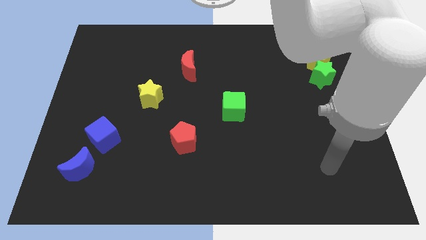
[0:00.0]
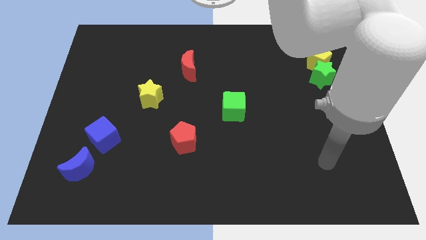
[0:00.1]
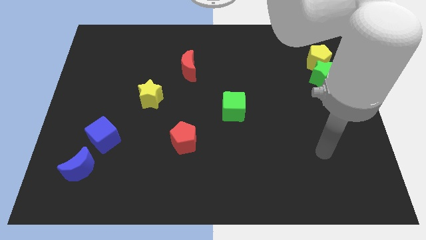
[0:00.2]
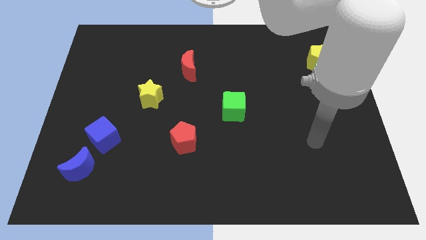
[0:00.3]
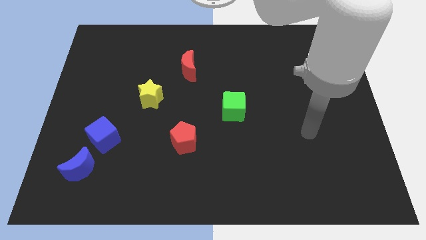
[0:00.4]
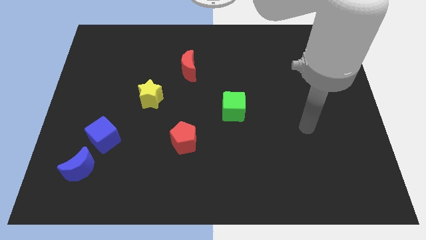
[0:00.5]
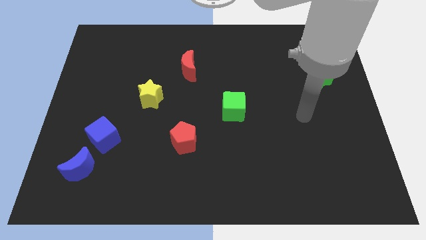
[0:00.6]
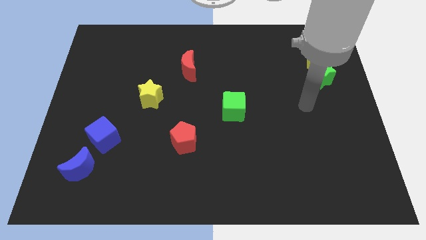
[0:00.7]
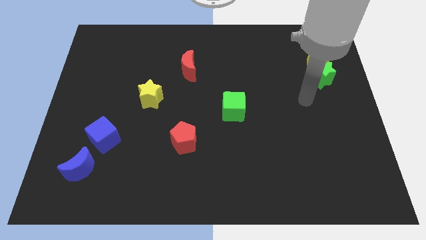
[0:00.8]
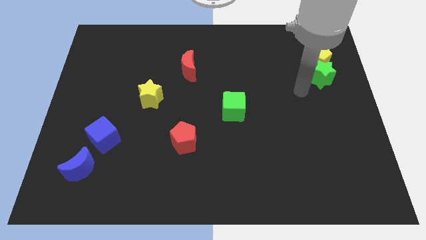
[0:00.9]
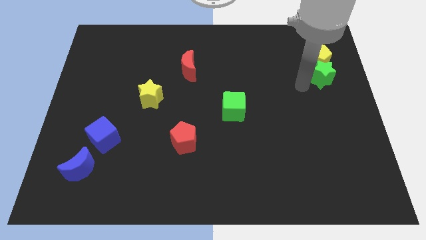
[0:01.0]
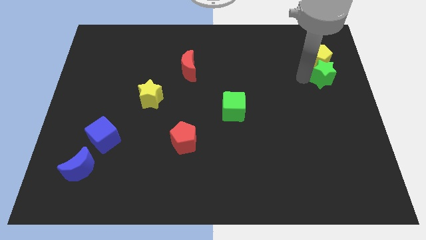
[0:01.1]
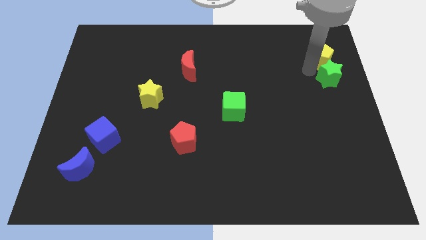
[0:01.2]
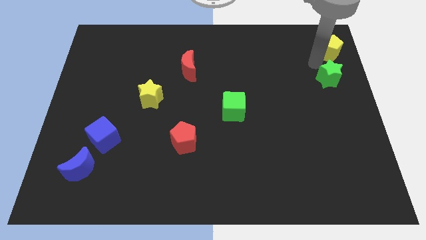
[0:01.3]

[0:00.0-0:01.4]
move the green star away from the yellow pentagon

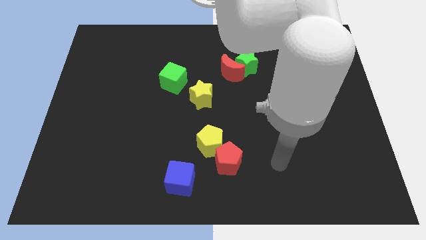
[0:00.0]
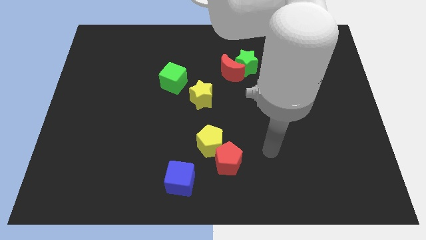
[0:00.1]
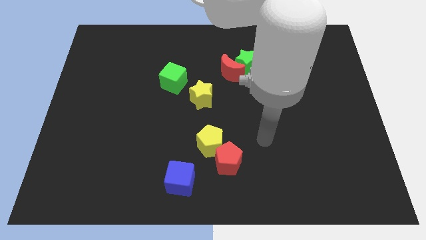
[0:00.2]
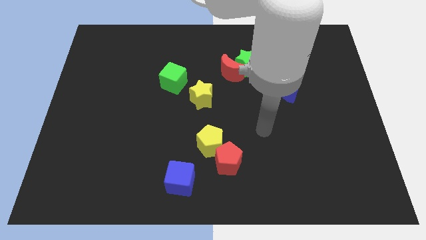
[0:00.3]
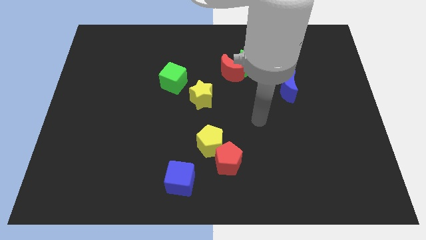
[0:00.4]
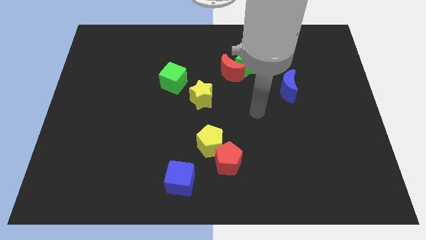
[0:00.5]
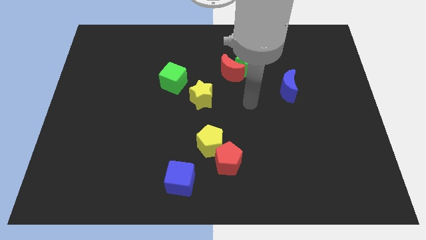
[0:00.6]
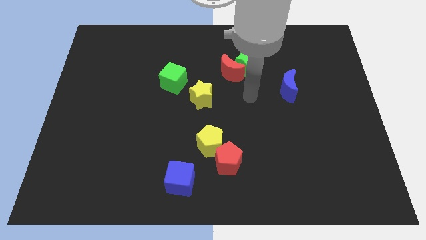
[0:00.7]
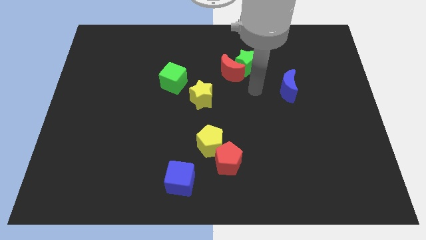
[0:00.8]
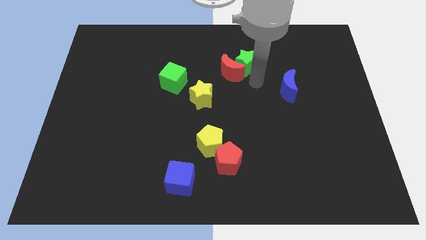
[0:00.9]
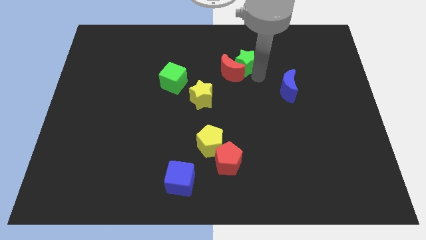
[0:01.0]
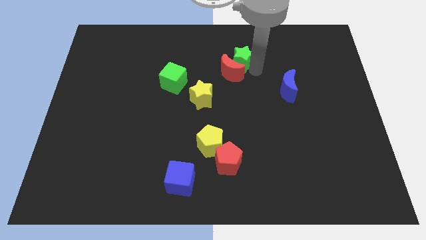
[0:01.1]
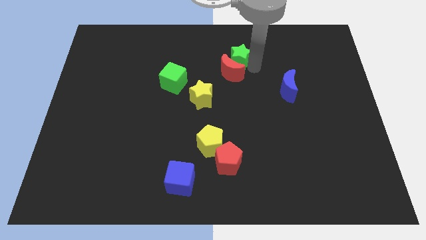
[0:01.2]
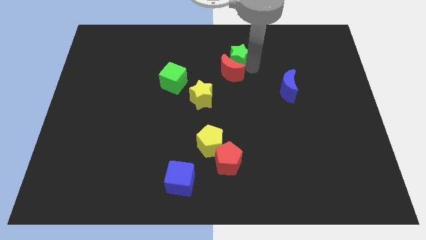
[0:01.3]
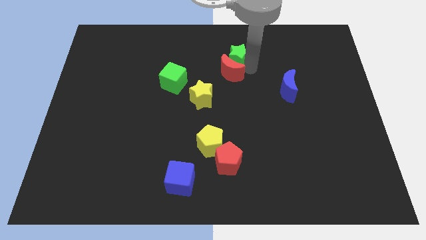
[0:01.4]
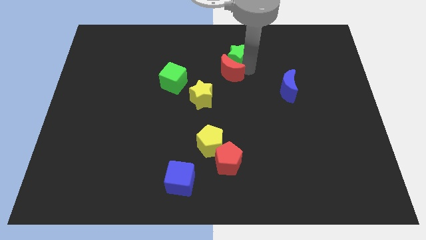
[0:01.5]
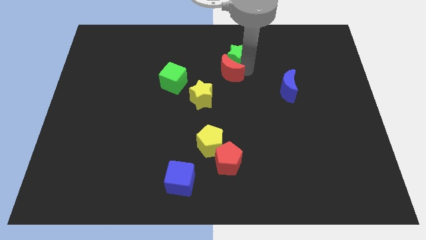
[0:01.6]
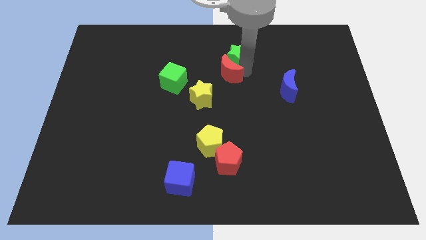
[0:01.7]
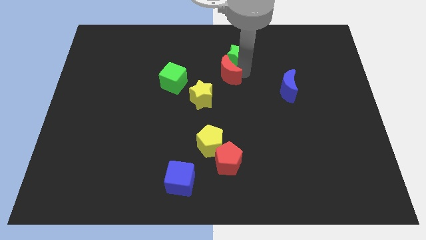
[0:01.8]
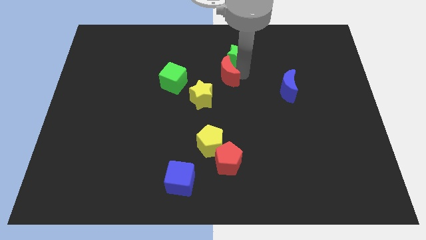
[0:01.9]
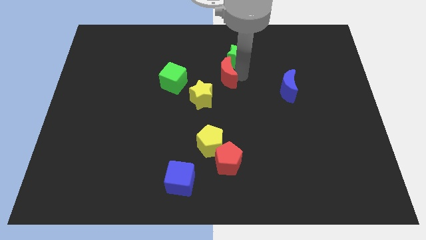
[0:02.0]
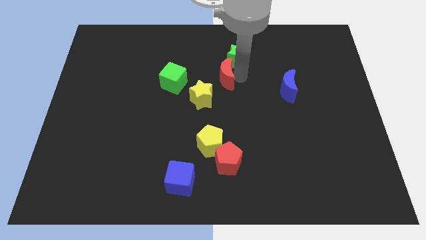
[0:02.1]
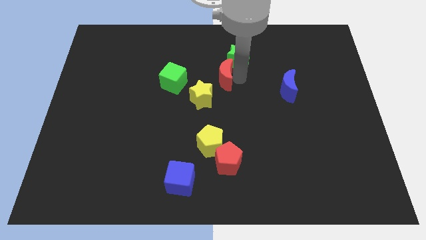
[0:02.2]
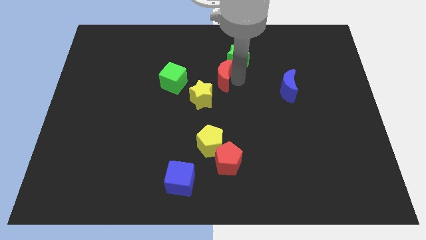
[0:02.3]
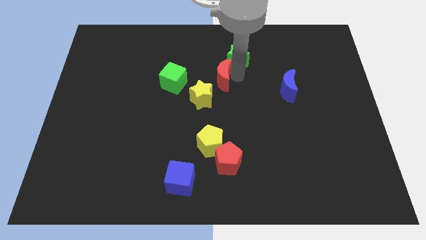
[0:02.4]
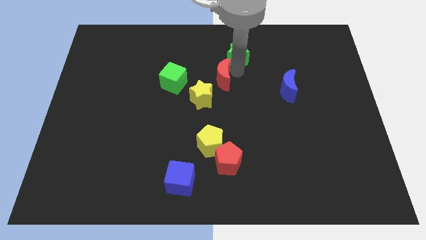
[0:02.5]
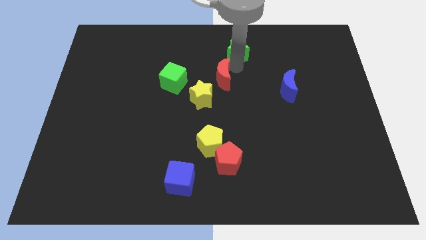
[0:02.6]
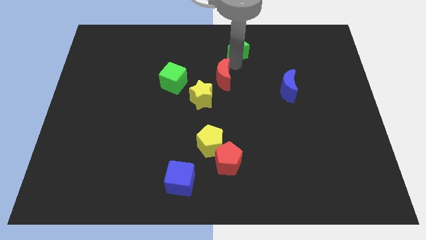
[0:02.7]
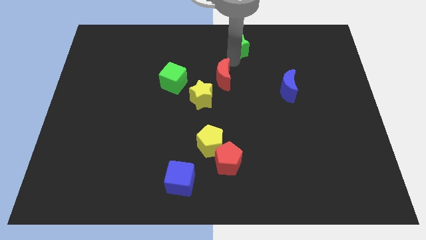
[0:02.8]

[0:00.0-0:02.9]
move the red moon away from the green star

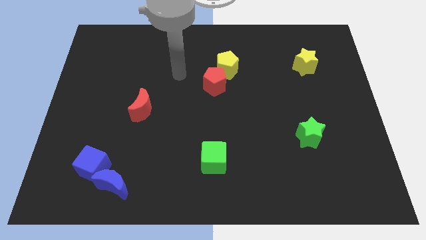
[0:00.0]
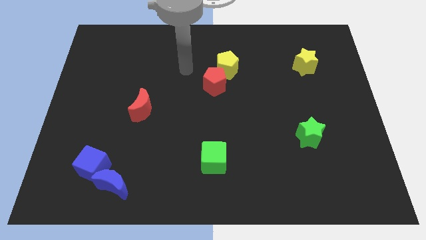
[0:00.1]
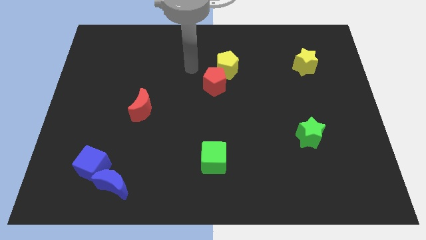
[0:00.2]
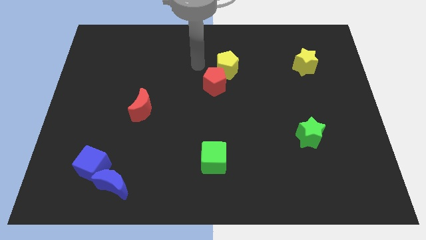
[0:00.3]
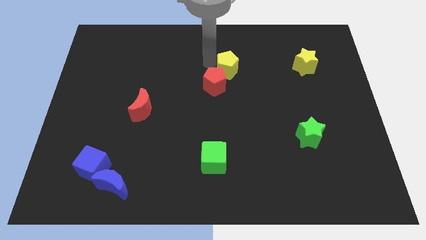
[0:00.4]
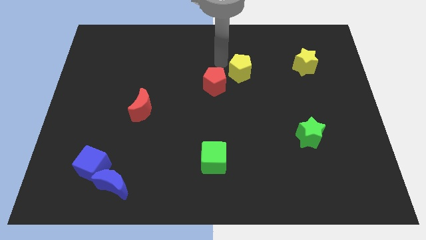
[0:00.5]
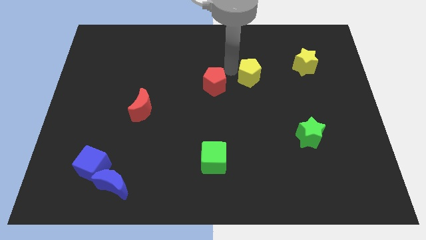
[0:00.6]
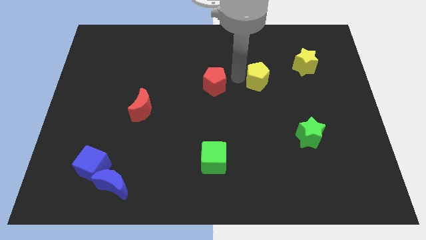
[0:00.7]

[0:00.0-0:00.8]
pull the red pentagon apart from the yellow pentagon

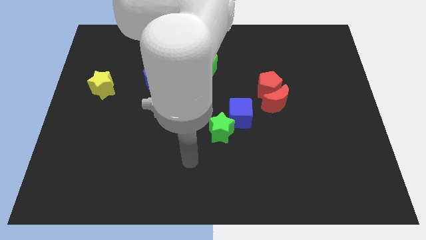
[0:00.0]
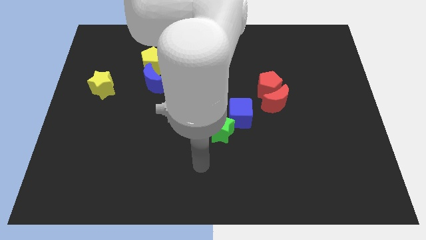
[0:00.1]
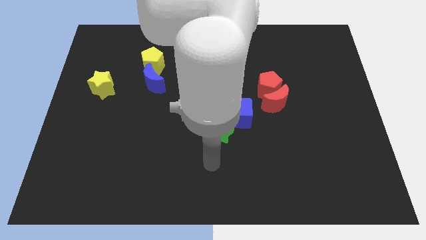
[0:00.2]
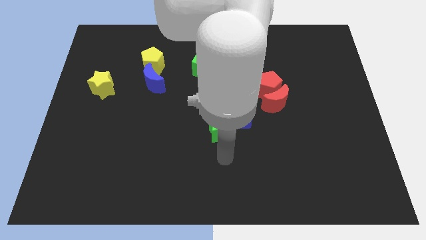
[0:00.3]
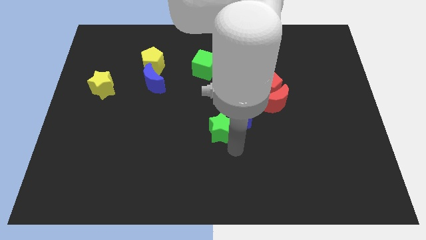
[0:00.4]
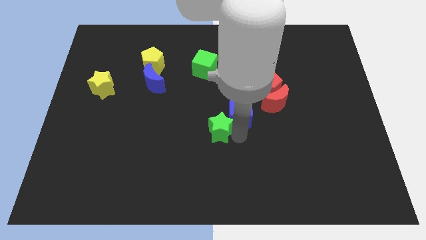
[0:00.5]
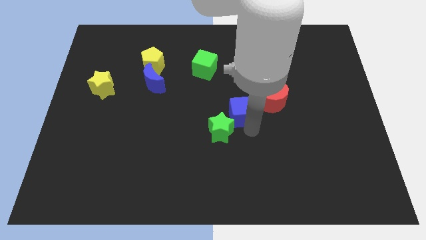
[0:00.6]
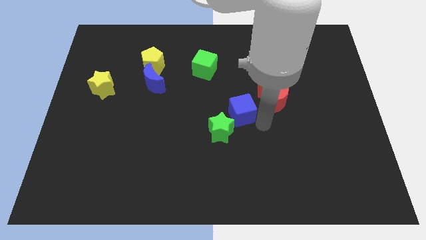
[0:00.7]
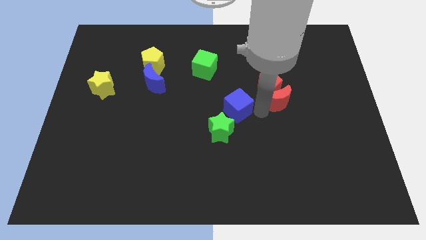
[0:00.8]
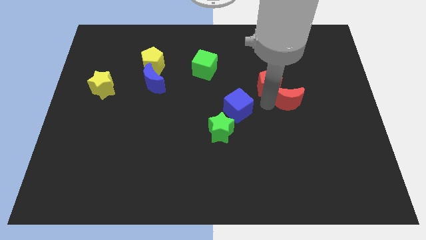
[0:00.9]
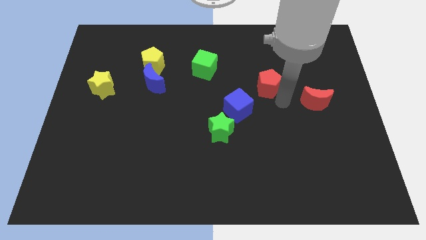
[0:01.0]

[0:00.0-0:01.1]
separate the red pentagon from the red moon

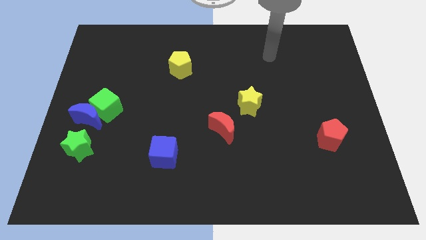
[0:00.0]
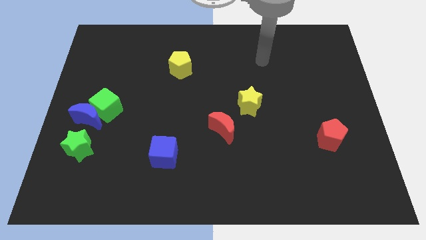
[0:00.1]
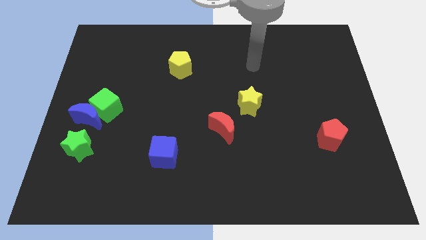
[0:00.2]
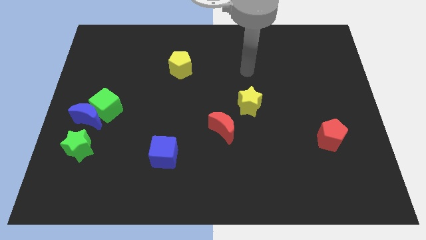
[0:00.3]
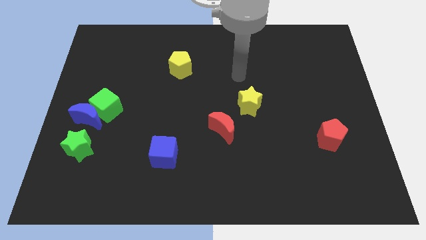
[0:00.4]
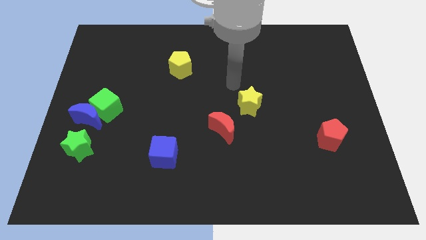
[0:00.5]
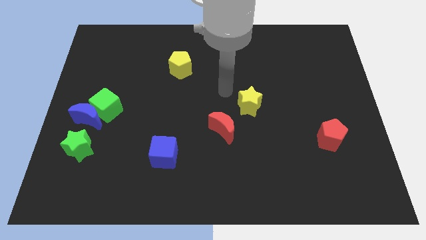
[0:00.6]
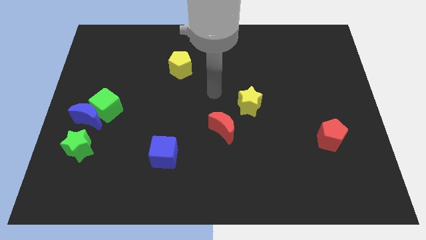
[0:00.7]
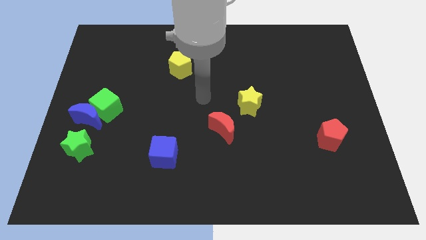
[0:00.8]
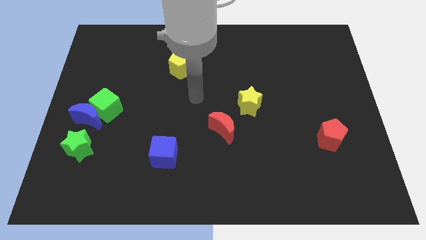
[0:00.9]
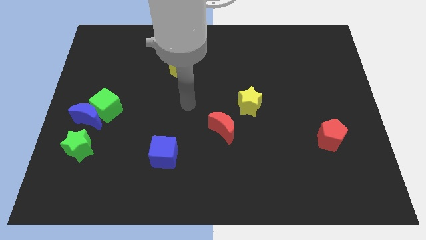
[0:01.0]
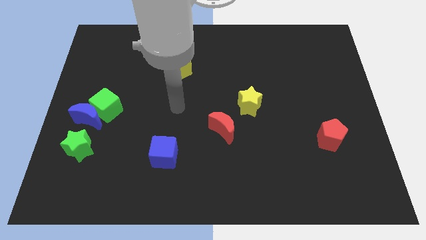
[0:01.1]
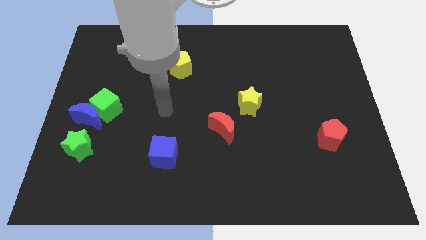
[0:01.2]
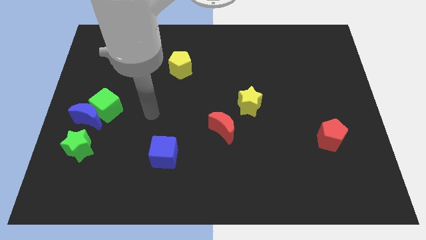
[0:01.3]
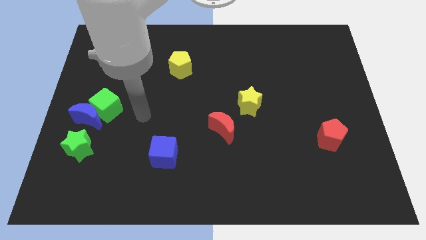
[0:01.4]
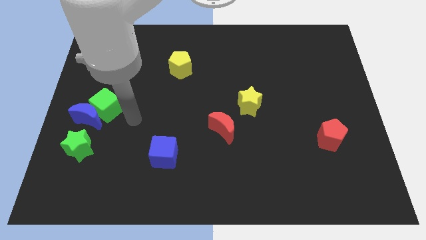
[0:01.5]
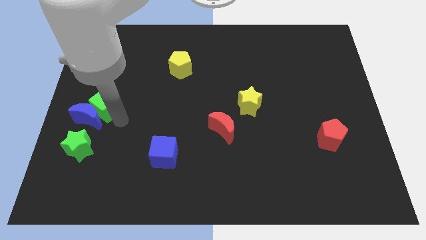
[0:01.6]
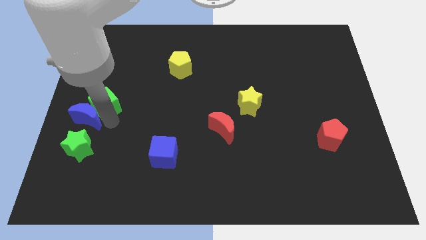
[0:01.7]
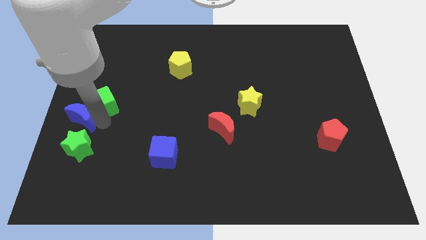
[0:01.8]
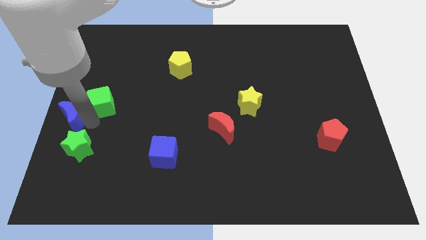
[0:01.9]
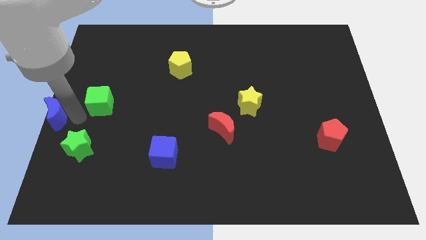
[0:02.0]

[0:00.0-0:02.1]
separate the green cube from the blue moon

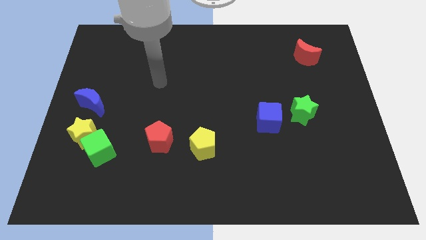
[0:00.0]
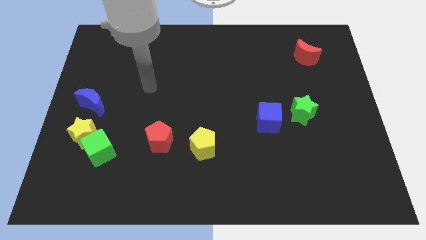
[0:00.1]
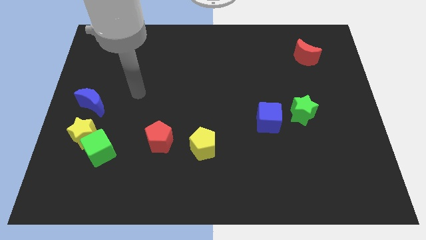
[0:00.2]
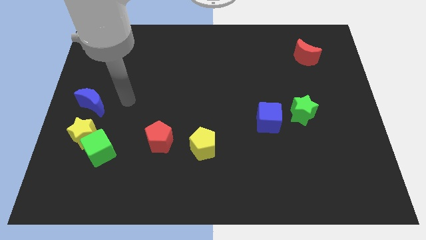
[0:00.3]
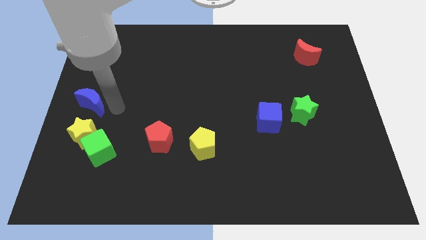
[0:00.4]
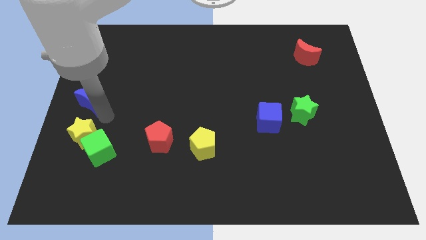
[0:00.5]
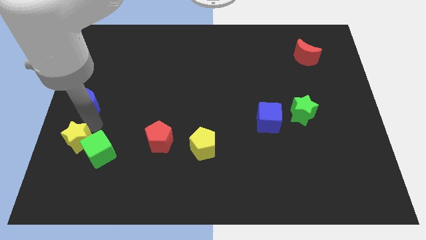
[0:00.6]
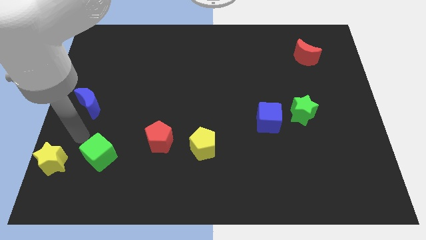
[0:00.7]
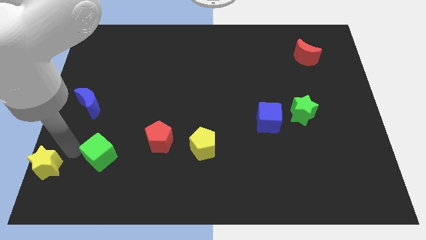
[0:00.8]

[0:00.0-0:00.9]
move the green cube away from the yellow star

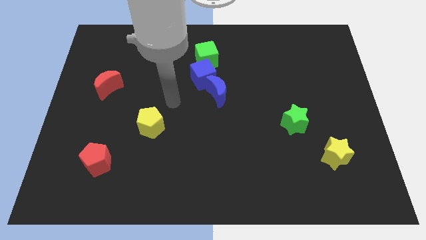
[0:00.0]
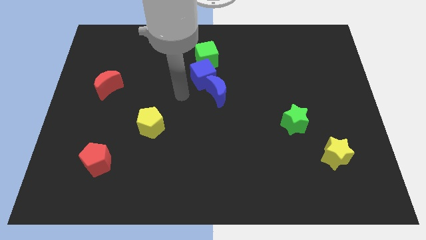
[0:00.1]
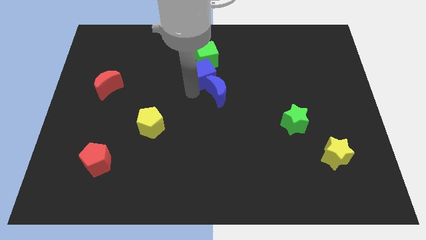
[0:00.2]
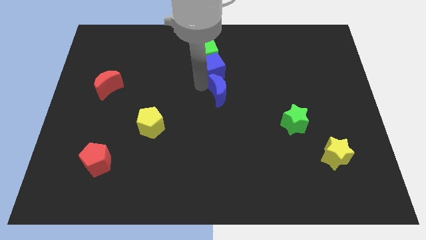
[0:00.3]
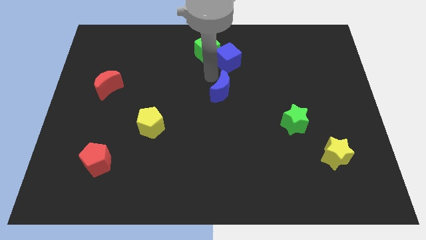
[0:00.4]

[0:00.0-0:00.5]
move the blue moon away from the blue cube
